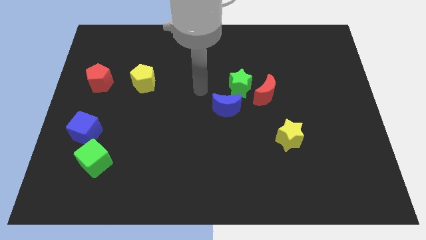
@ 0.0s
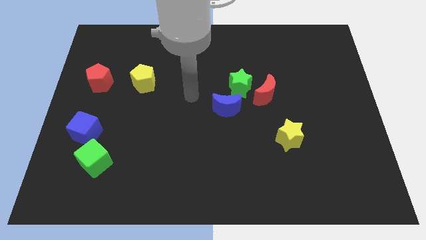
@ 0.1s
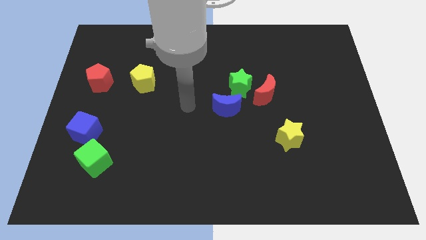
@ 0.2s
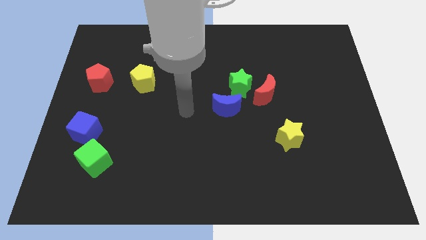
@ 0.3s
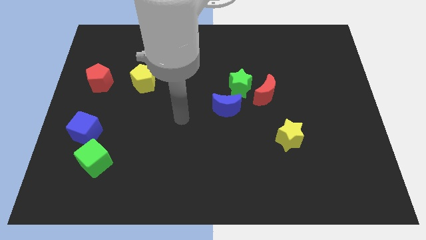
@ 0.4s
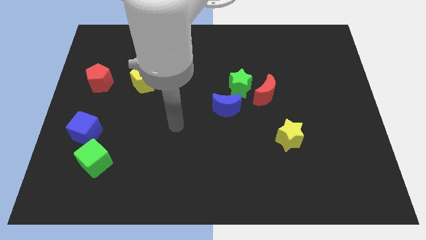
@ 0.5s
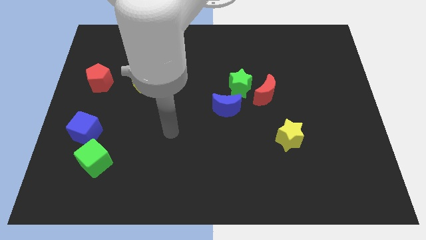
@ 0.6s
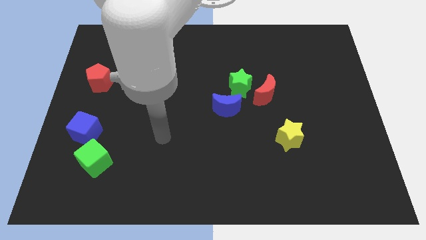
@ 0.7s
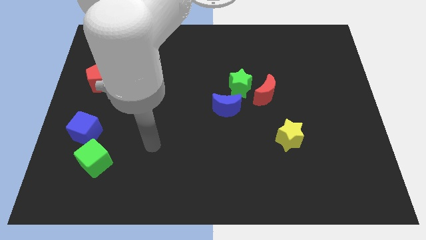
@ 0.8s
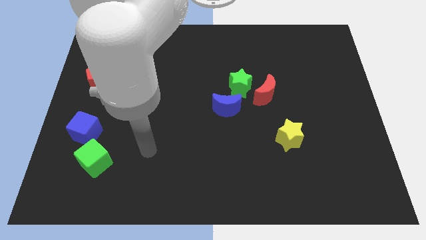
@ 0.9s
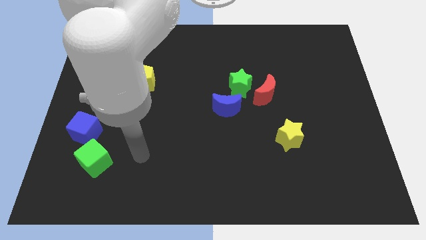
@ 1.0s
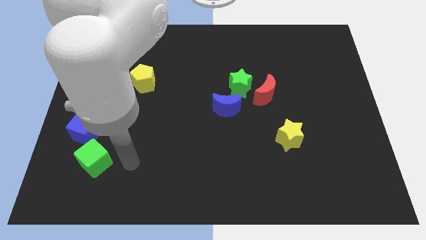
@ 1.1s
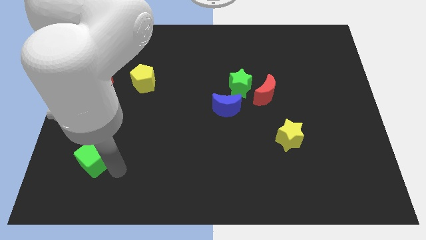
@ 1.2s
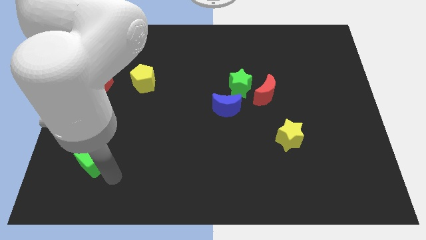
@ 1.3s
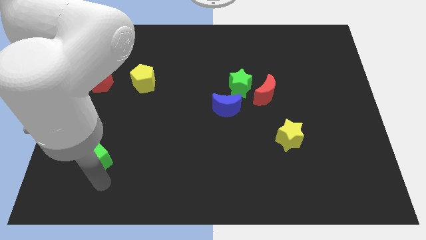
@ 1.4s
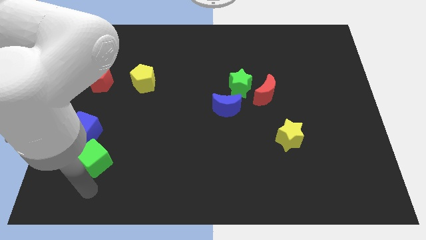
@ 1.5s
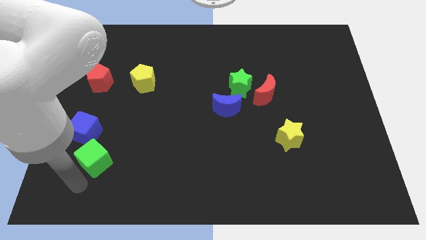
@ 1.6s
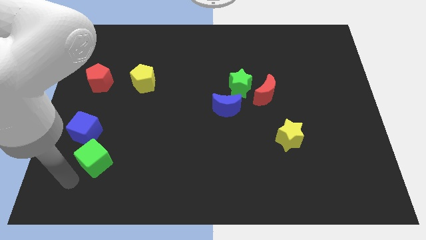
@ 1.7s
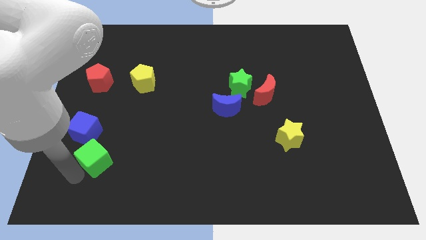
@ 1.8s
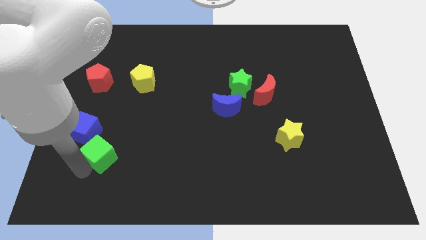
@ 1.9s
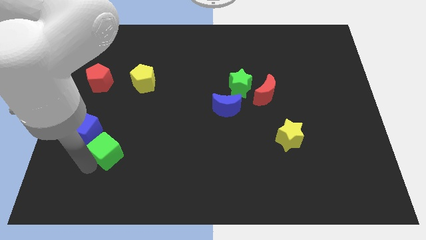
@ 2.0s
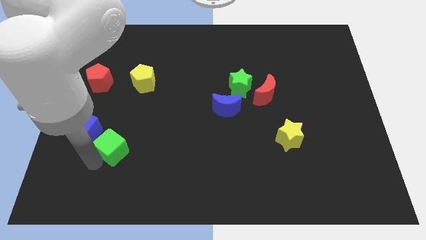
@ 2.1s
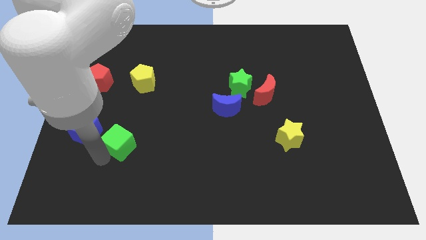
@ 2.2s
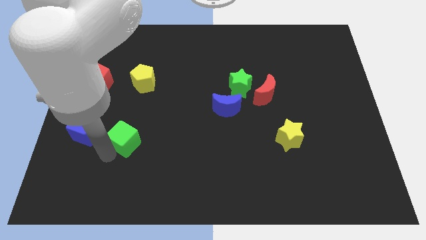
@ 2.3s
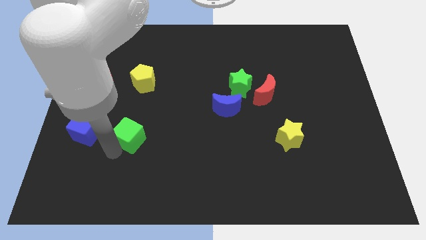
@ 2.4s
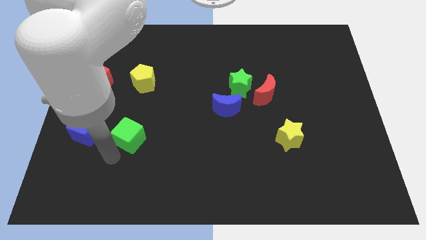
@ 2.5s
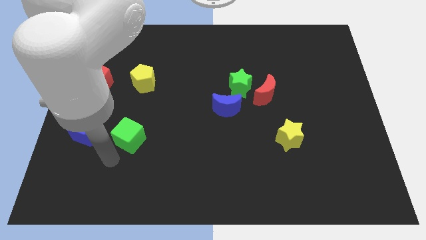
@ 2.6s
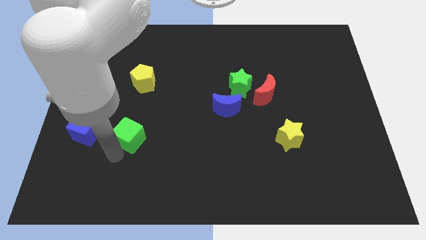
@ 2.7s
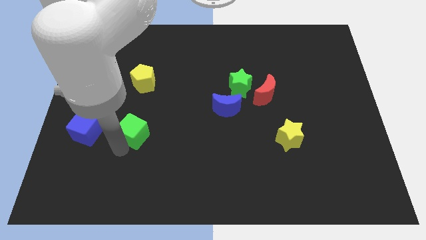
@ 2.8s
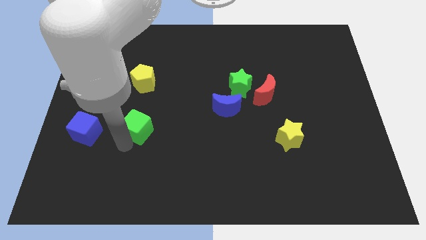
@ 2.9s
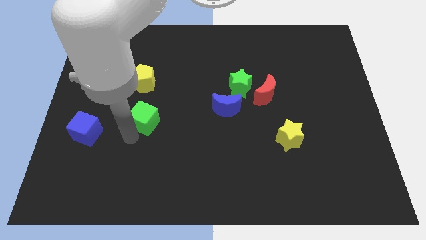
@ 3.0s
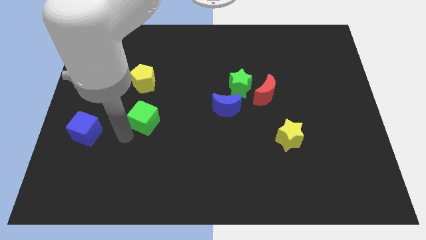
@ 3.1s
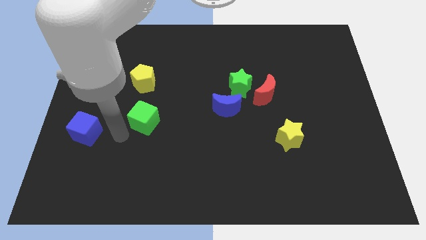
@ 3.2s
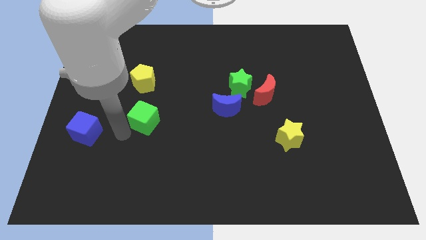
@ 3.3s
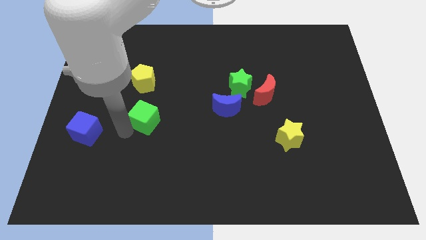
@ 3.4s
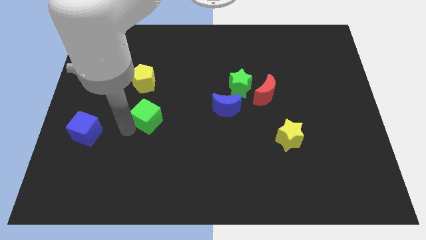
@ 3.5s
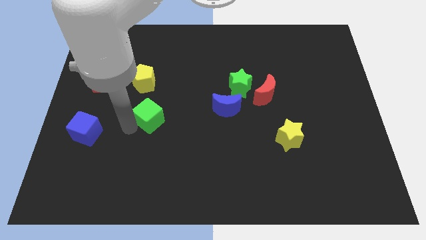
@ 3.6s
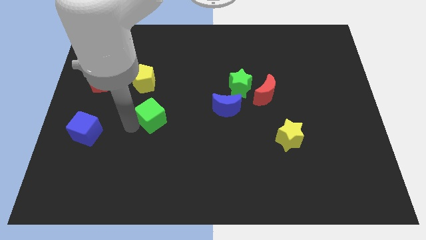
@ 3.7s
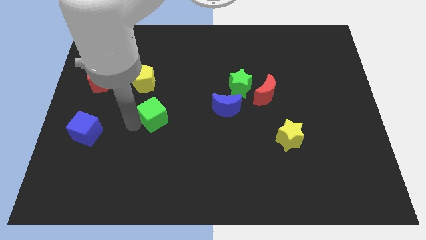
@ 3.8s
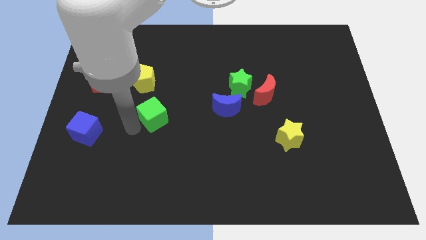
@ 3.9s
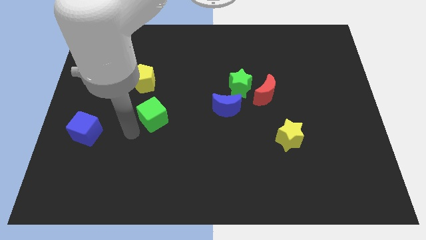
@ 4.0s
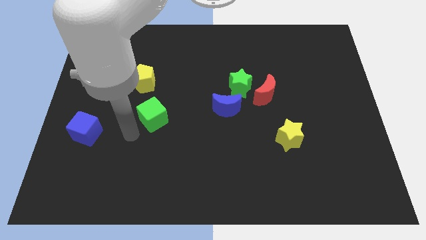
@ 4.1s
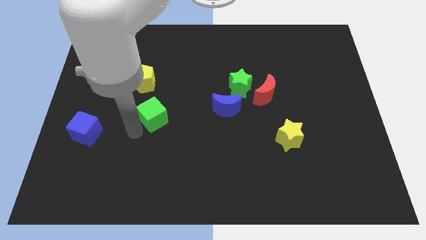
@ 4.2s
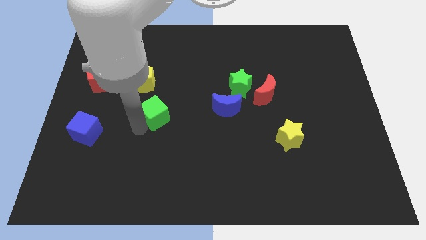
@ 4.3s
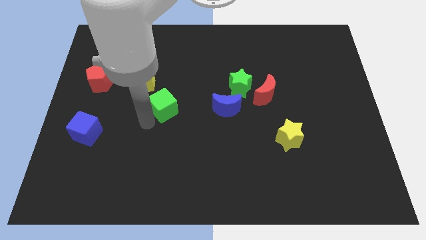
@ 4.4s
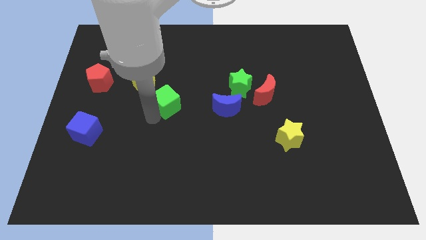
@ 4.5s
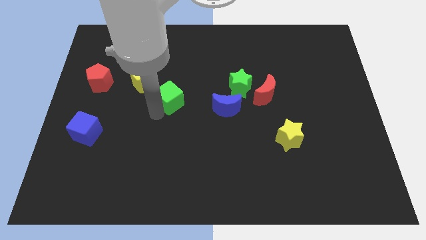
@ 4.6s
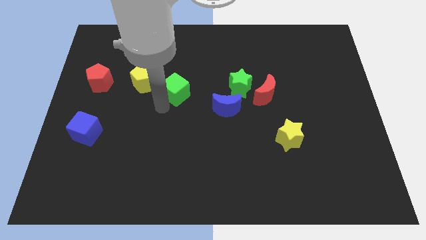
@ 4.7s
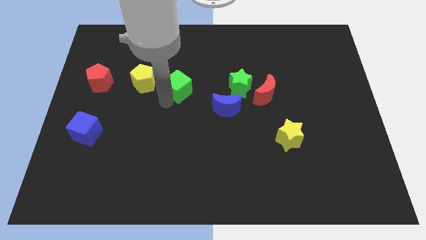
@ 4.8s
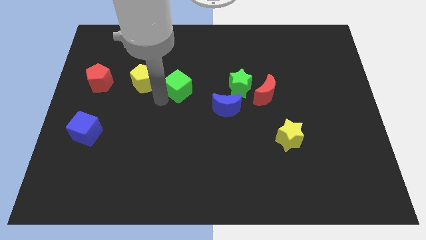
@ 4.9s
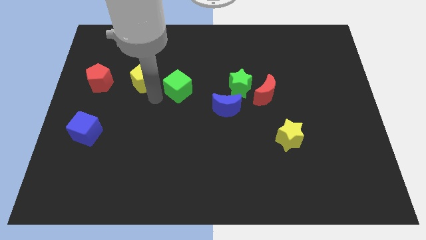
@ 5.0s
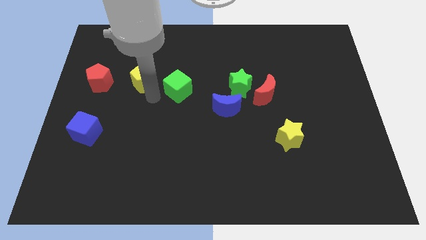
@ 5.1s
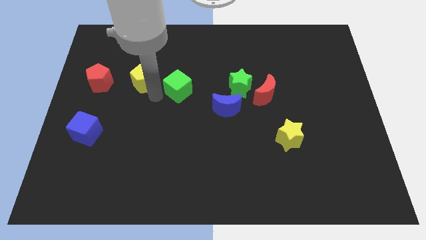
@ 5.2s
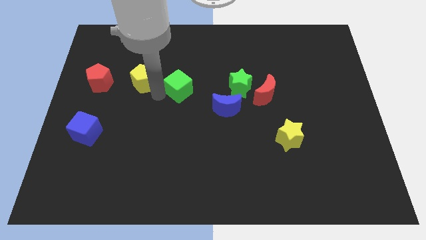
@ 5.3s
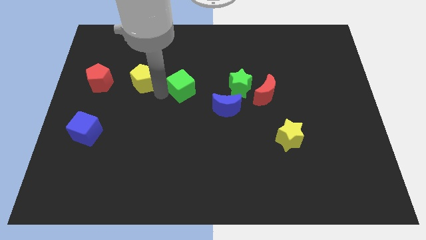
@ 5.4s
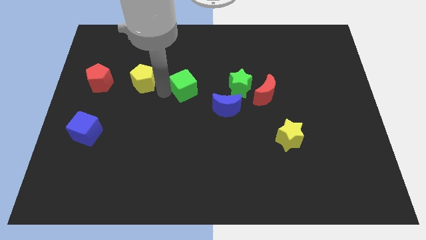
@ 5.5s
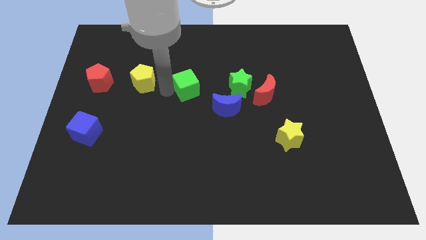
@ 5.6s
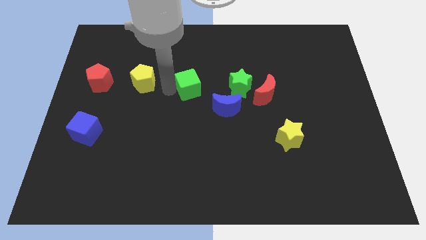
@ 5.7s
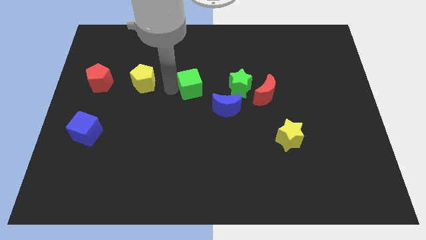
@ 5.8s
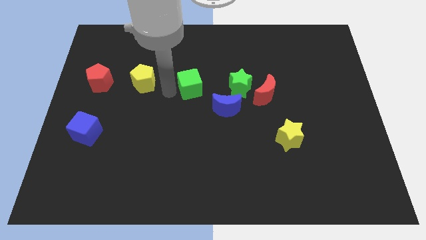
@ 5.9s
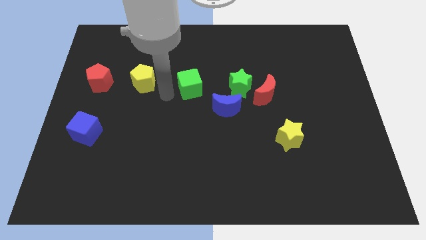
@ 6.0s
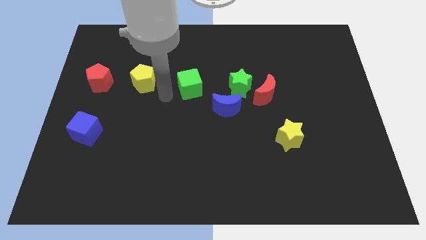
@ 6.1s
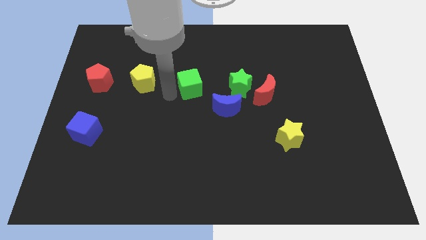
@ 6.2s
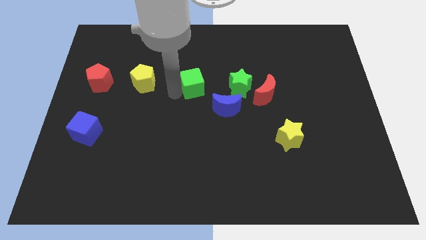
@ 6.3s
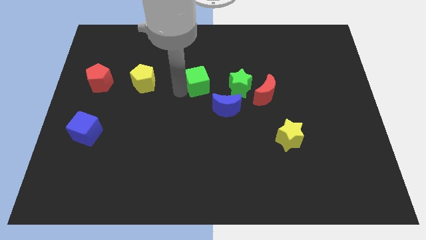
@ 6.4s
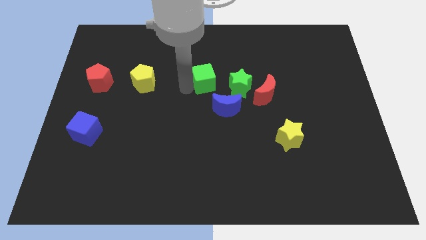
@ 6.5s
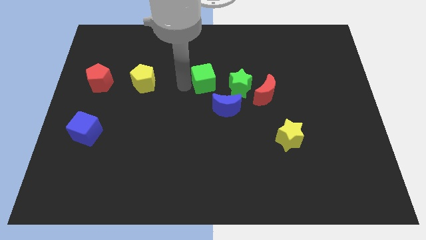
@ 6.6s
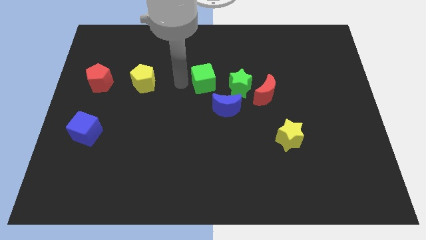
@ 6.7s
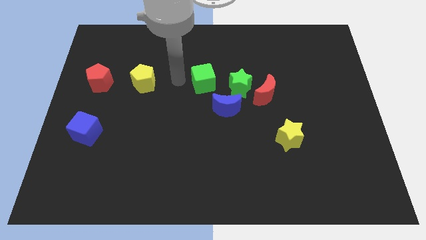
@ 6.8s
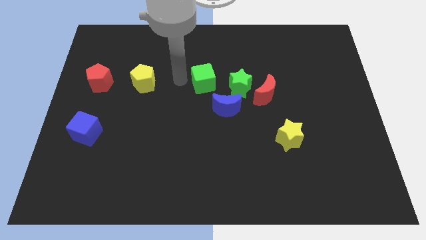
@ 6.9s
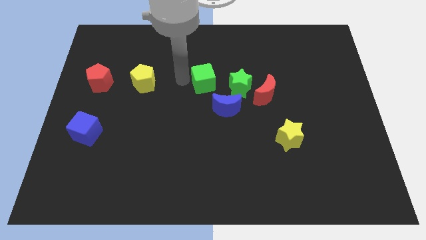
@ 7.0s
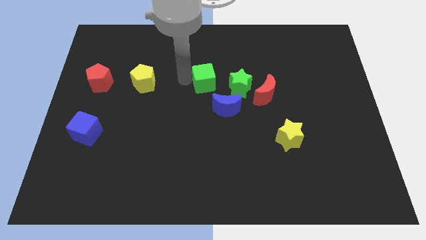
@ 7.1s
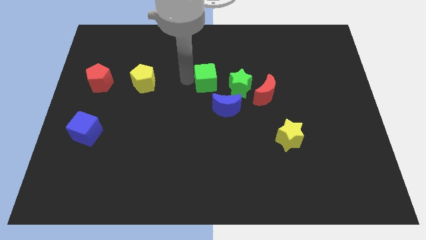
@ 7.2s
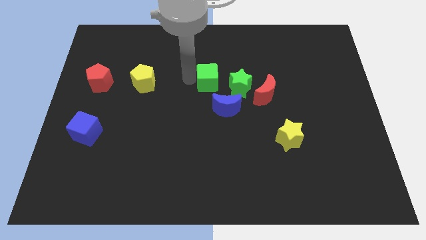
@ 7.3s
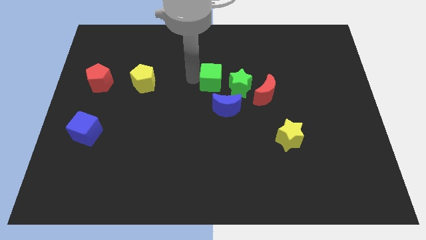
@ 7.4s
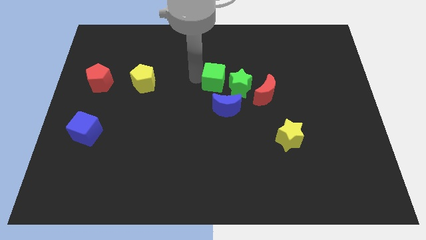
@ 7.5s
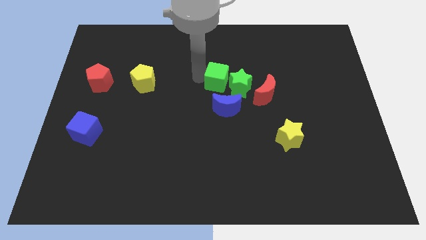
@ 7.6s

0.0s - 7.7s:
push the green cube close to the green star
